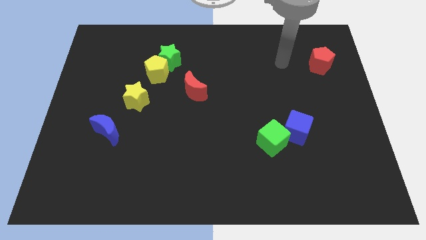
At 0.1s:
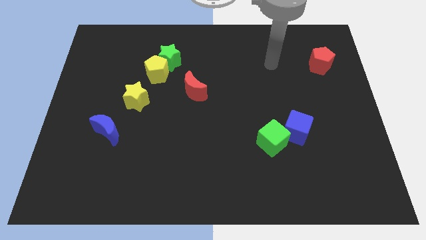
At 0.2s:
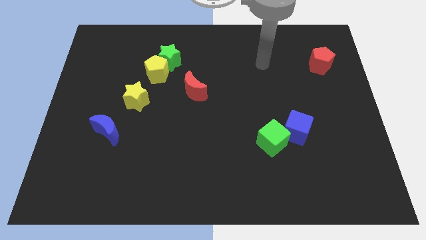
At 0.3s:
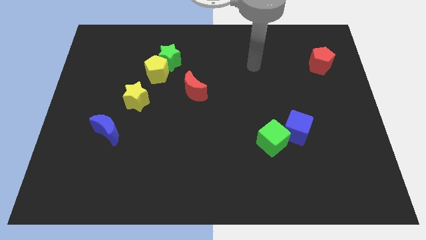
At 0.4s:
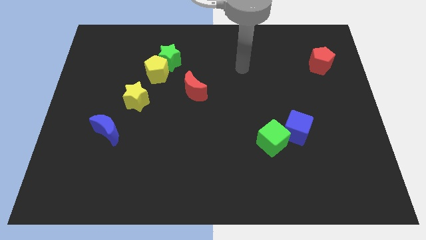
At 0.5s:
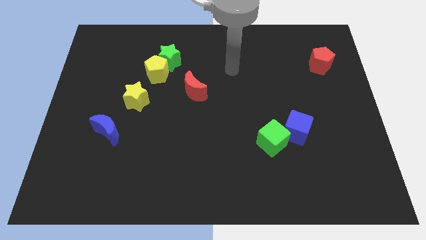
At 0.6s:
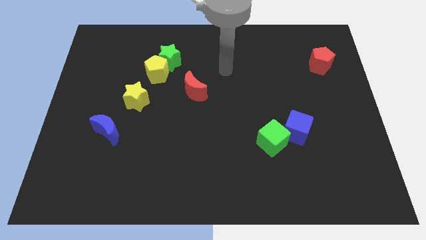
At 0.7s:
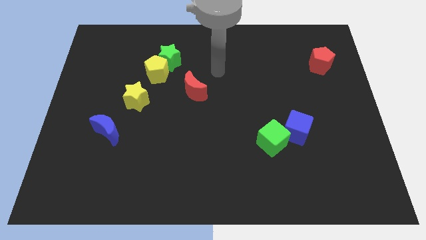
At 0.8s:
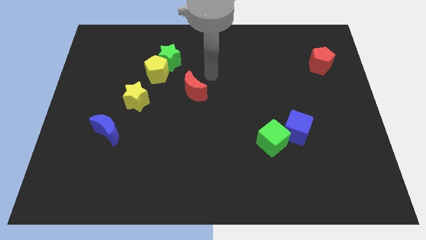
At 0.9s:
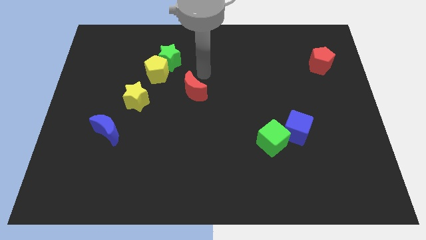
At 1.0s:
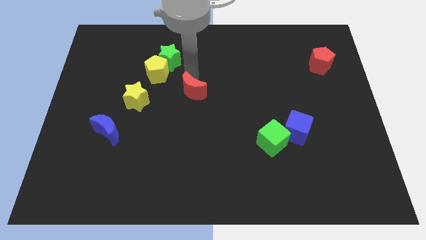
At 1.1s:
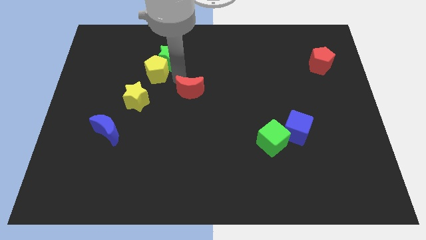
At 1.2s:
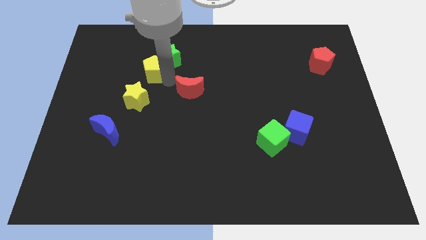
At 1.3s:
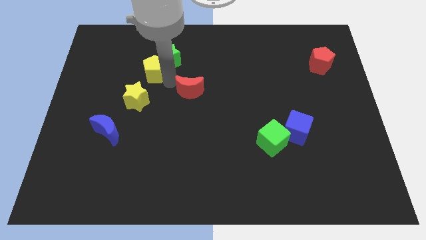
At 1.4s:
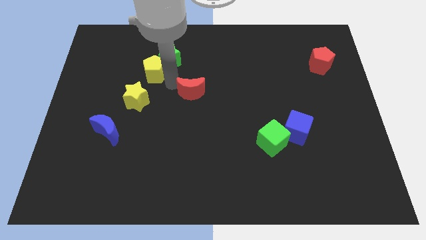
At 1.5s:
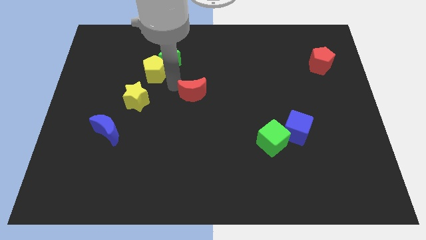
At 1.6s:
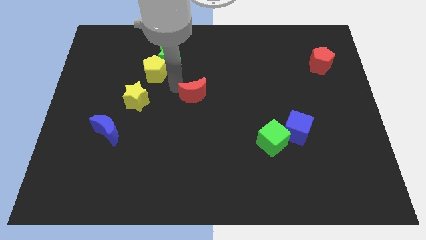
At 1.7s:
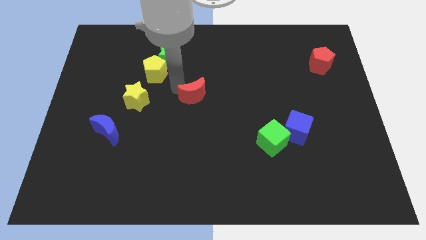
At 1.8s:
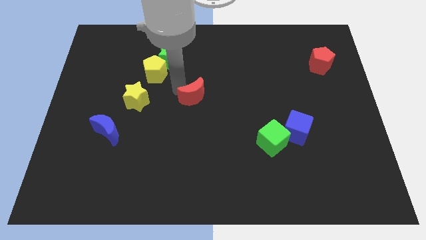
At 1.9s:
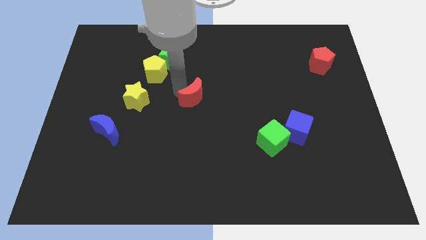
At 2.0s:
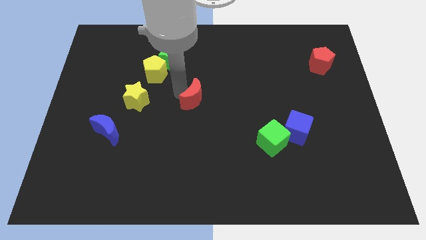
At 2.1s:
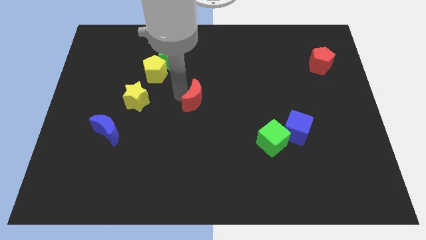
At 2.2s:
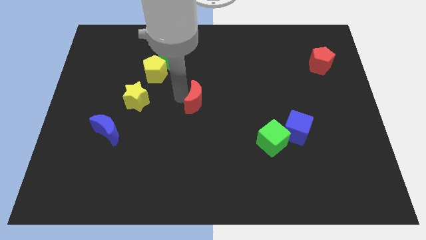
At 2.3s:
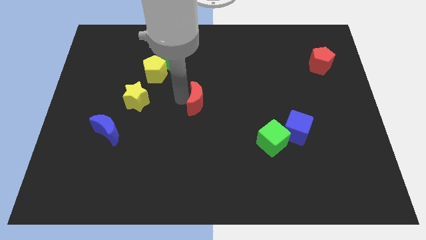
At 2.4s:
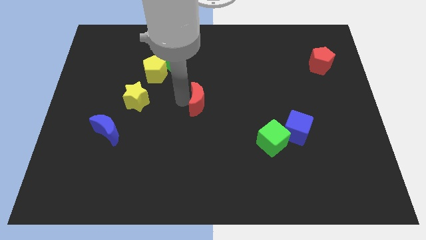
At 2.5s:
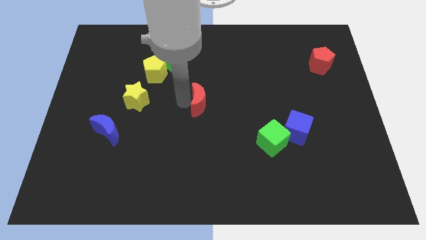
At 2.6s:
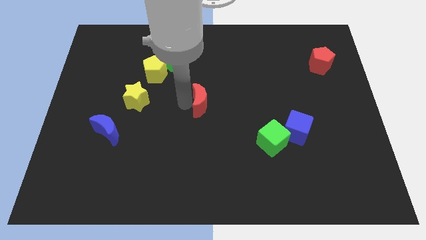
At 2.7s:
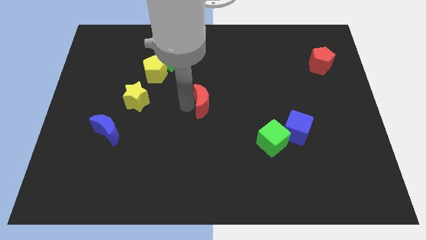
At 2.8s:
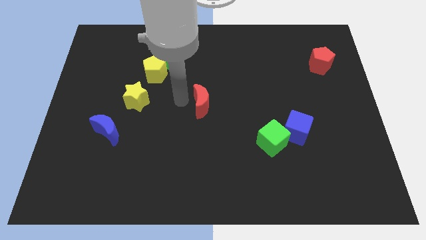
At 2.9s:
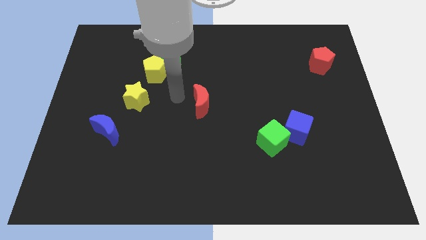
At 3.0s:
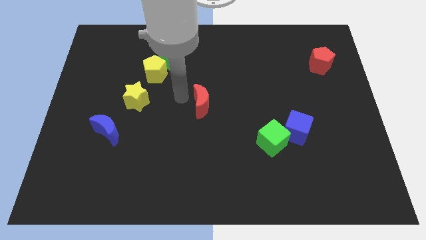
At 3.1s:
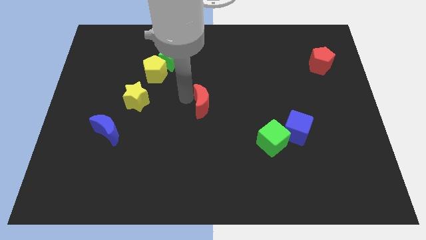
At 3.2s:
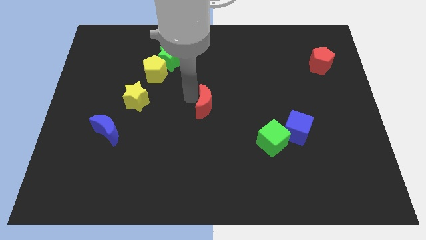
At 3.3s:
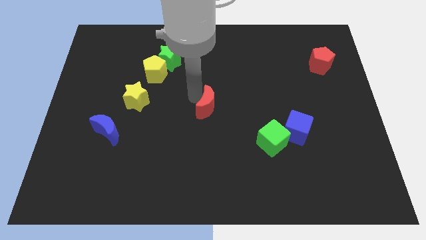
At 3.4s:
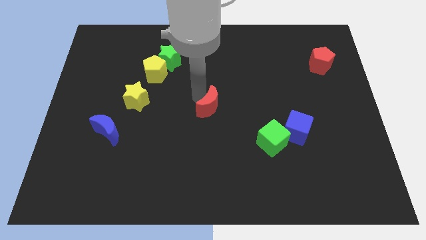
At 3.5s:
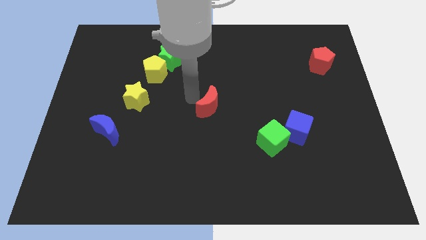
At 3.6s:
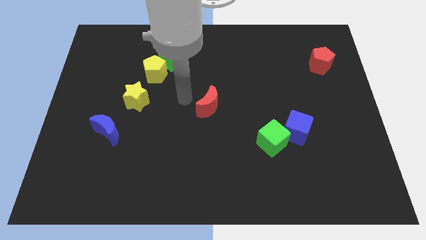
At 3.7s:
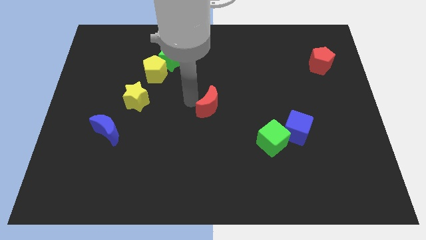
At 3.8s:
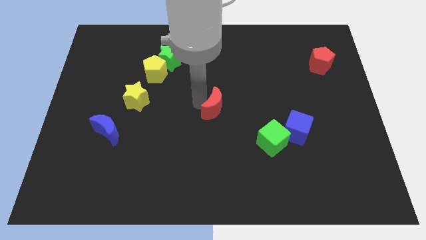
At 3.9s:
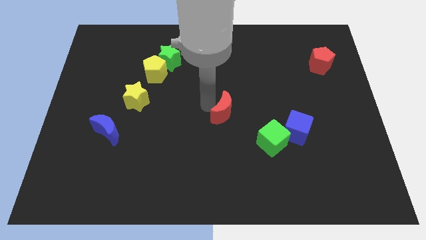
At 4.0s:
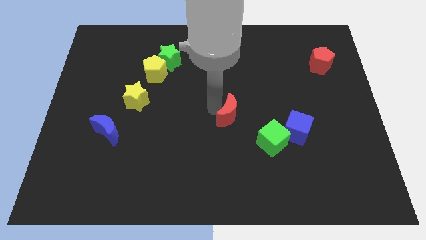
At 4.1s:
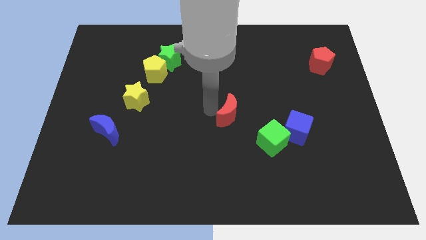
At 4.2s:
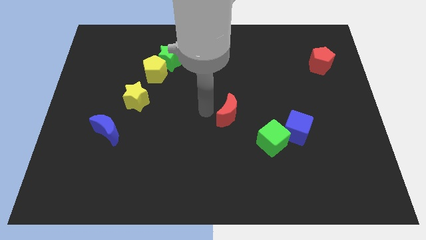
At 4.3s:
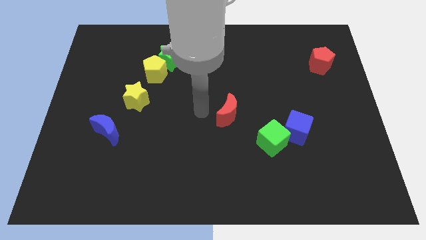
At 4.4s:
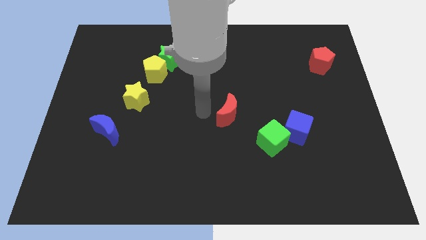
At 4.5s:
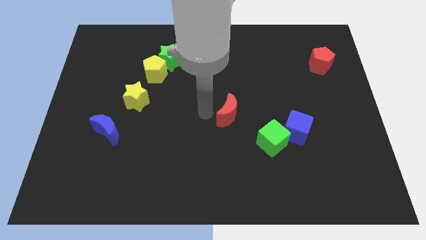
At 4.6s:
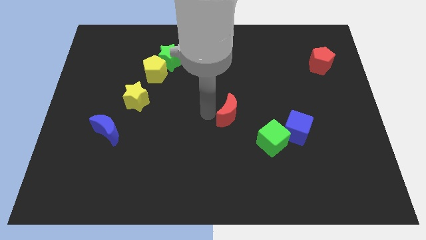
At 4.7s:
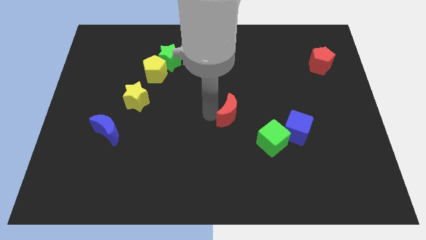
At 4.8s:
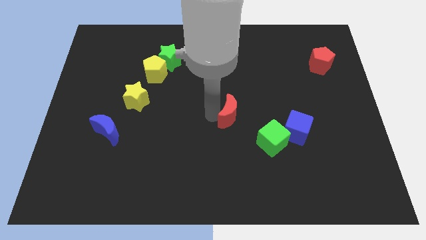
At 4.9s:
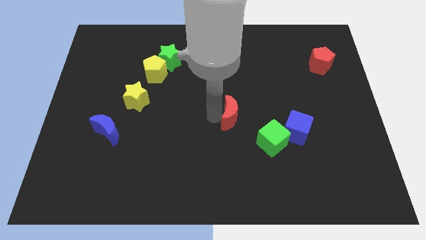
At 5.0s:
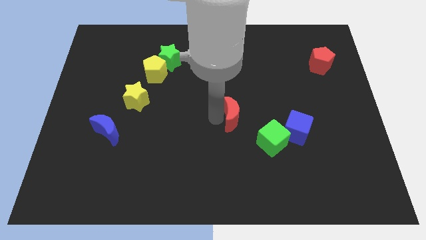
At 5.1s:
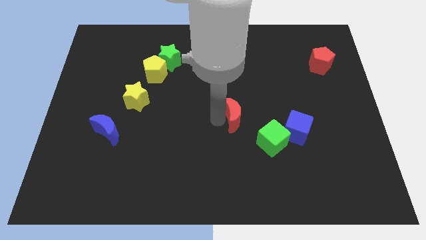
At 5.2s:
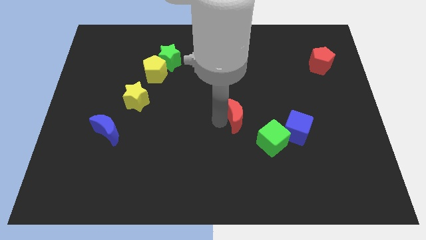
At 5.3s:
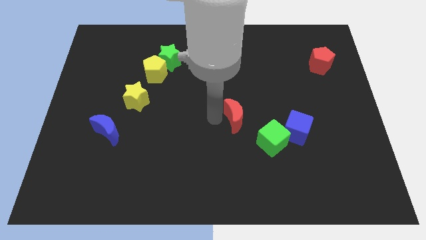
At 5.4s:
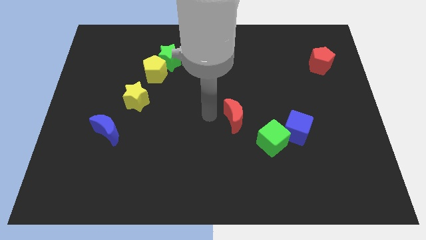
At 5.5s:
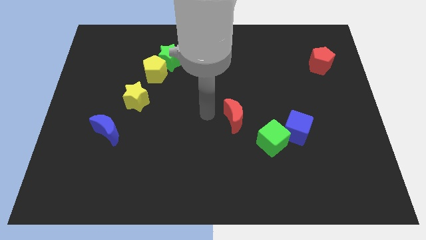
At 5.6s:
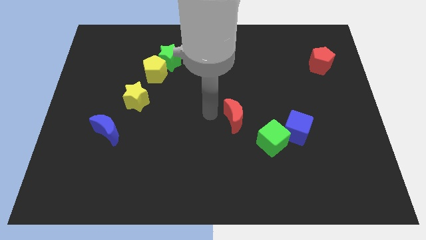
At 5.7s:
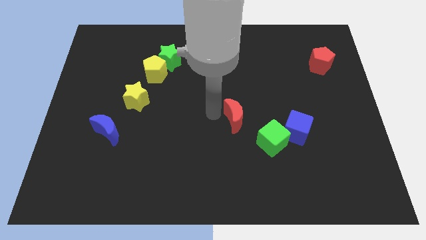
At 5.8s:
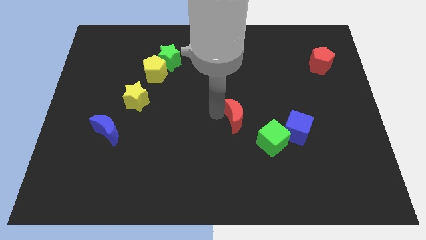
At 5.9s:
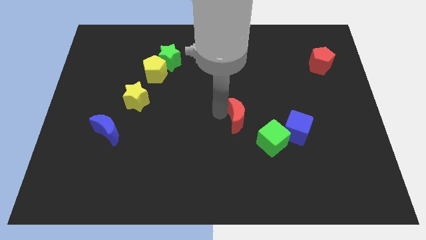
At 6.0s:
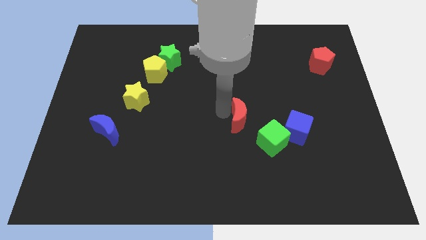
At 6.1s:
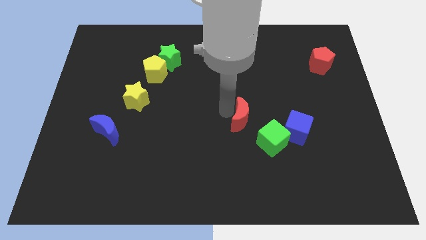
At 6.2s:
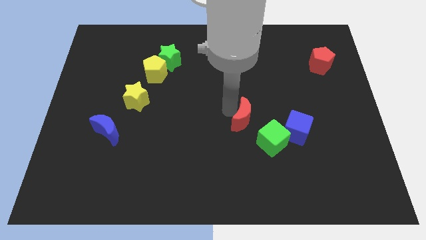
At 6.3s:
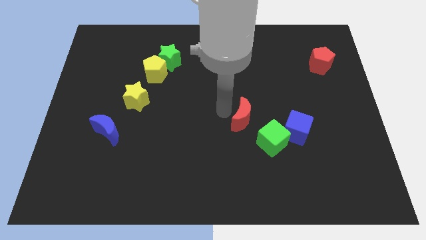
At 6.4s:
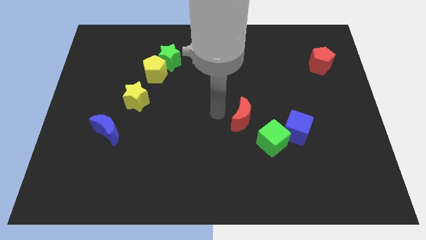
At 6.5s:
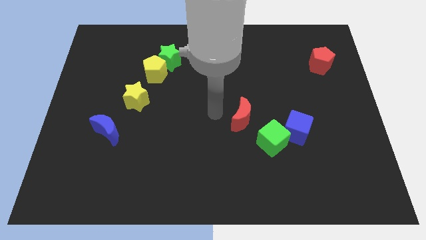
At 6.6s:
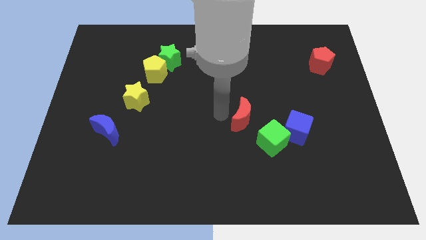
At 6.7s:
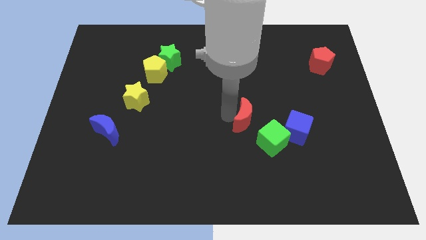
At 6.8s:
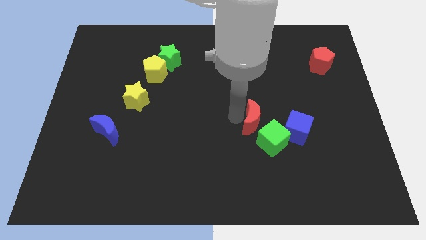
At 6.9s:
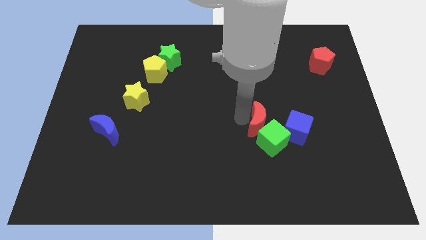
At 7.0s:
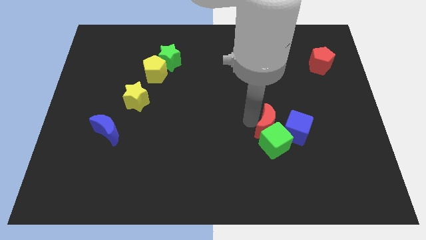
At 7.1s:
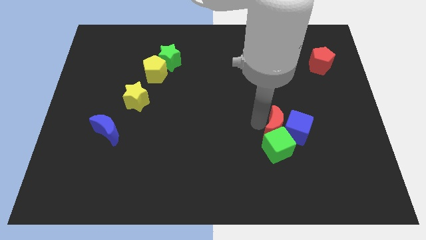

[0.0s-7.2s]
move the red moon next to the blue cube
